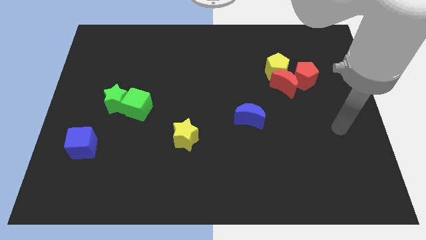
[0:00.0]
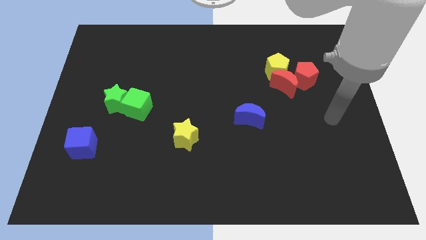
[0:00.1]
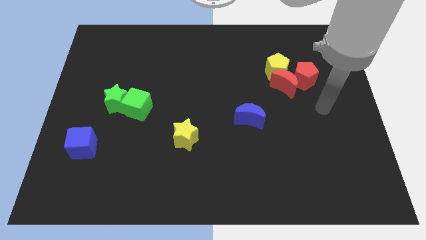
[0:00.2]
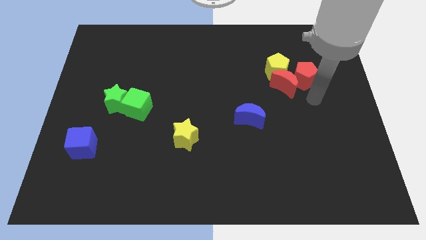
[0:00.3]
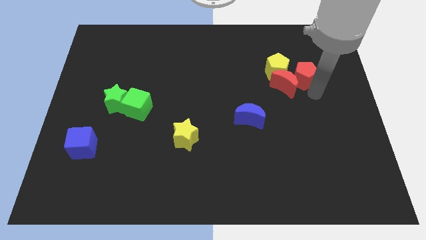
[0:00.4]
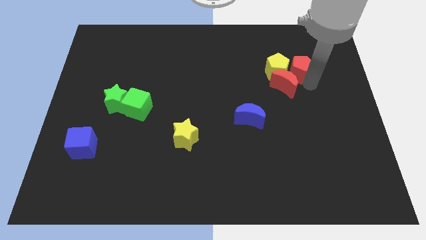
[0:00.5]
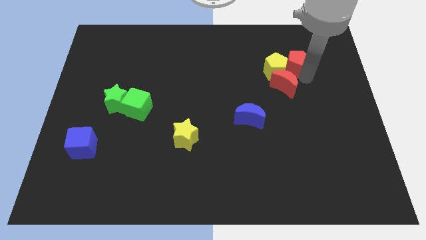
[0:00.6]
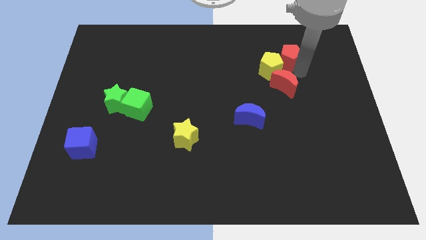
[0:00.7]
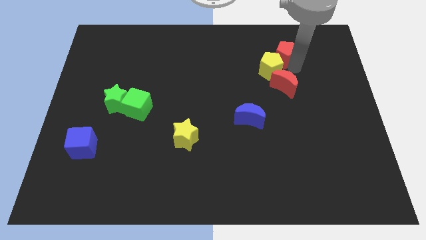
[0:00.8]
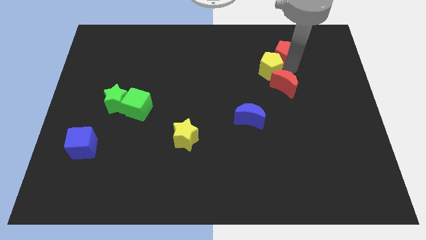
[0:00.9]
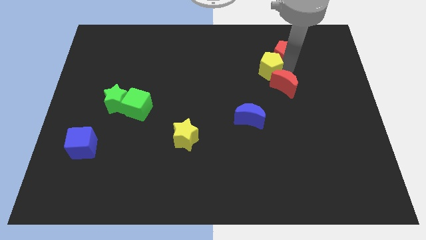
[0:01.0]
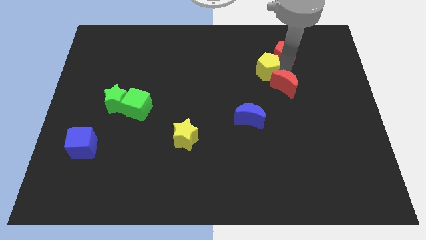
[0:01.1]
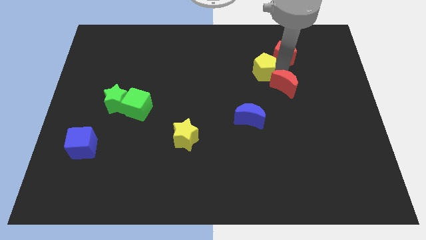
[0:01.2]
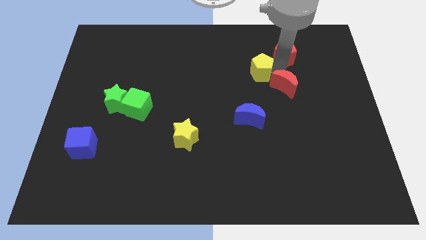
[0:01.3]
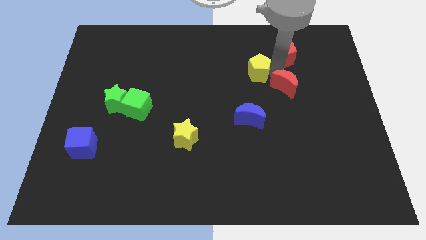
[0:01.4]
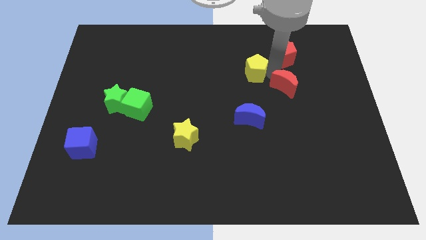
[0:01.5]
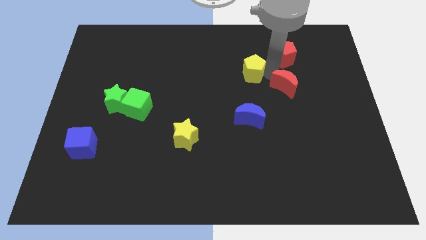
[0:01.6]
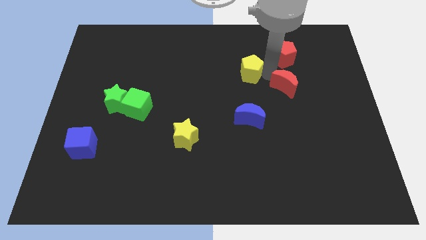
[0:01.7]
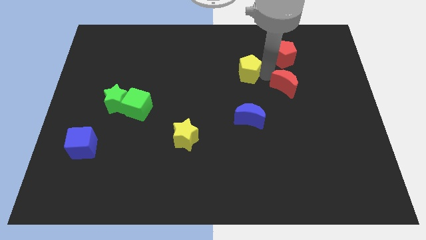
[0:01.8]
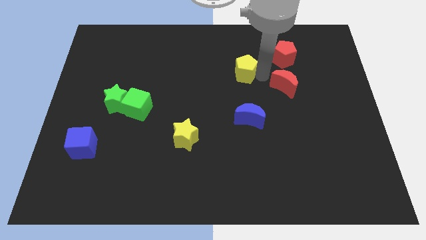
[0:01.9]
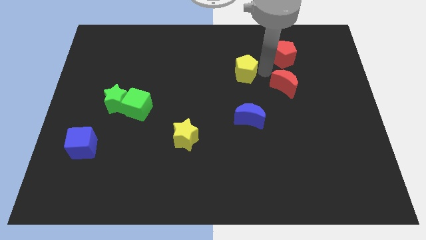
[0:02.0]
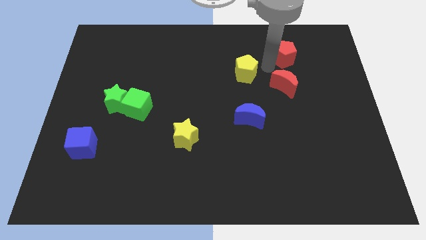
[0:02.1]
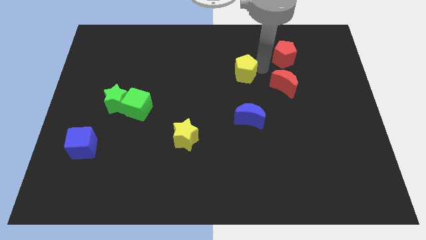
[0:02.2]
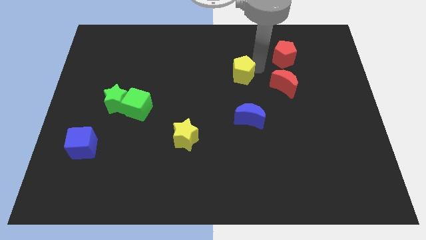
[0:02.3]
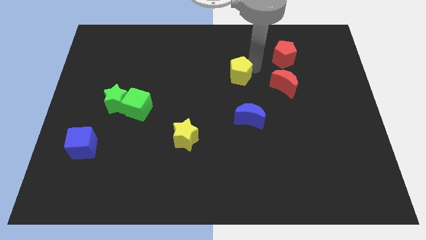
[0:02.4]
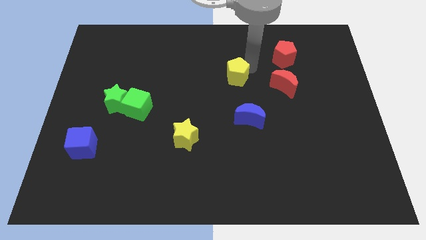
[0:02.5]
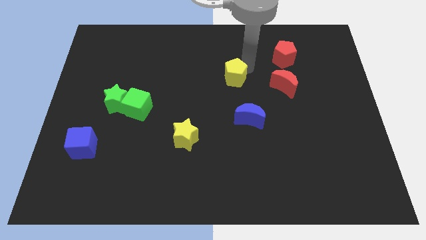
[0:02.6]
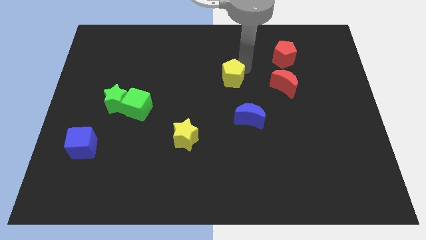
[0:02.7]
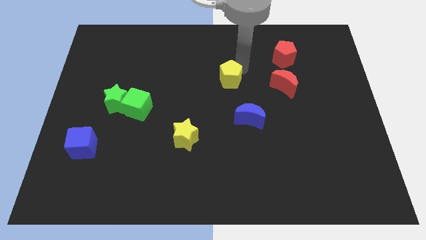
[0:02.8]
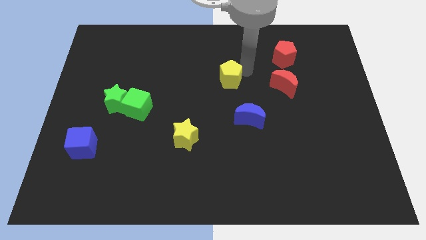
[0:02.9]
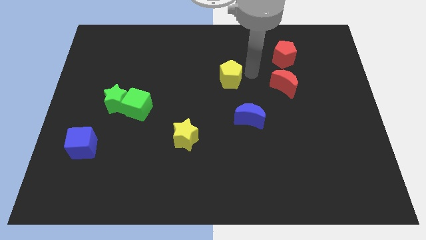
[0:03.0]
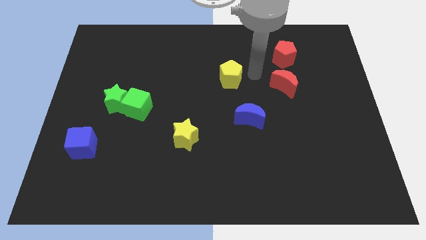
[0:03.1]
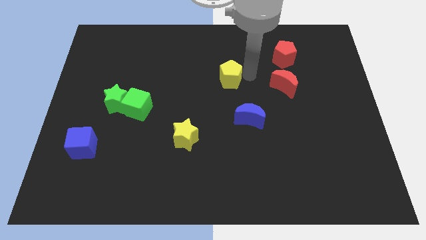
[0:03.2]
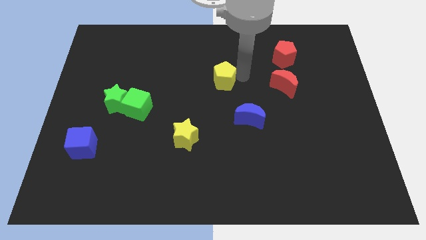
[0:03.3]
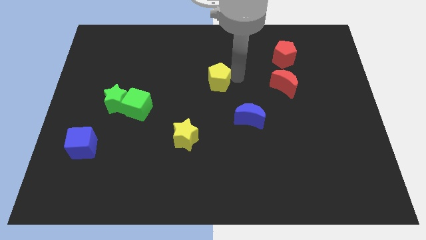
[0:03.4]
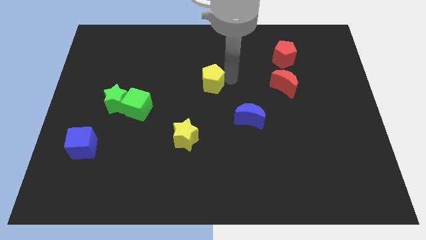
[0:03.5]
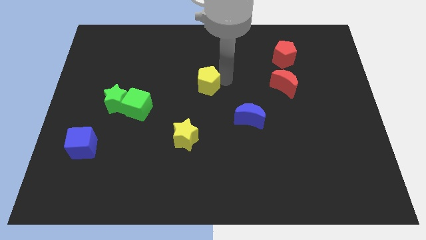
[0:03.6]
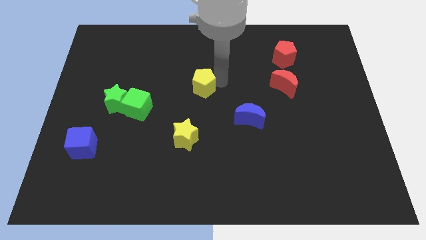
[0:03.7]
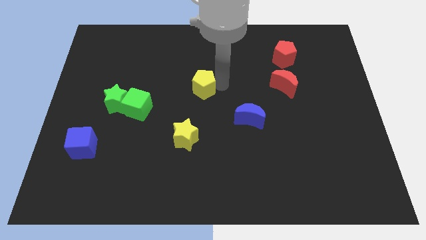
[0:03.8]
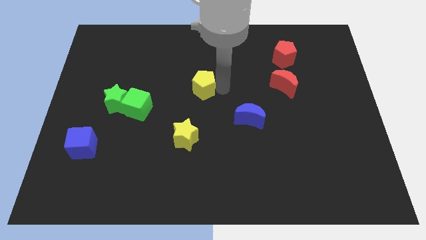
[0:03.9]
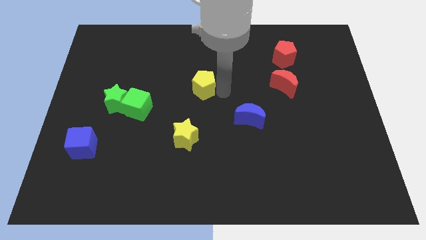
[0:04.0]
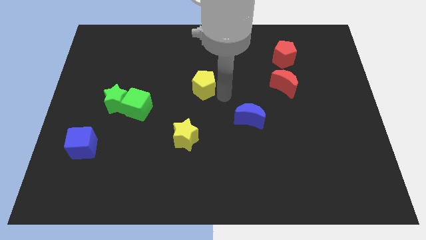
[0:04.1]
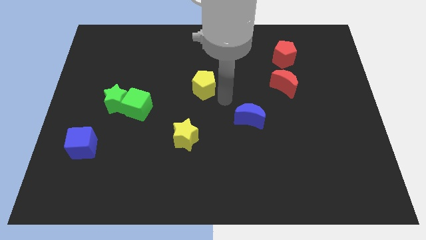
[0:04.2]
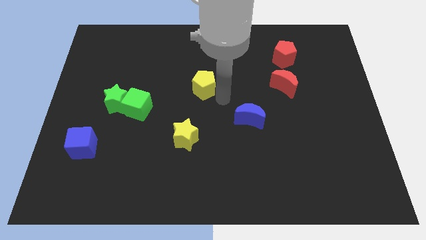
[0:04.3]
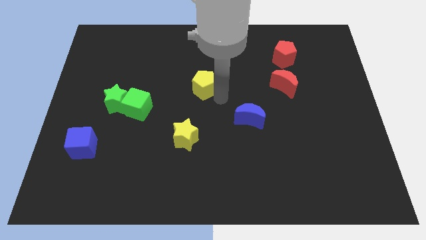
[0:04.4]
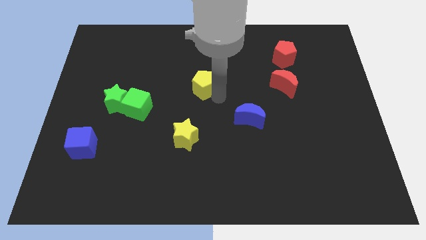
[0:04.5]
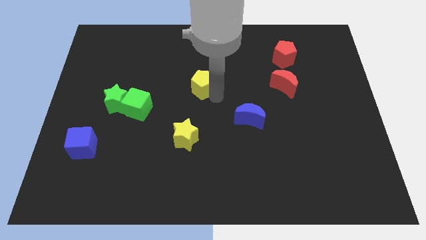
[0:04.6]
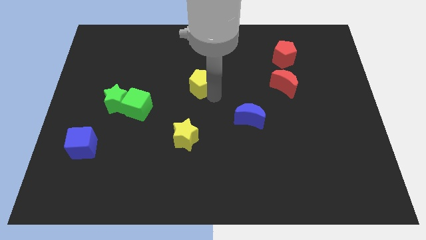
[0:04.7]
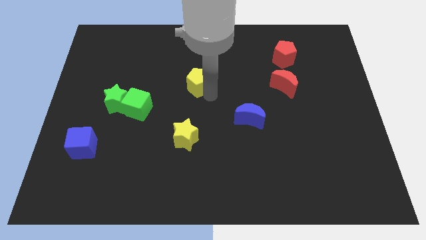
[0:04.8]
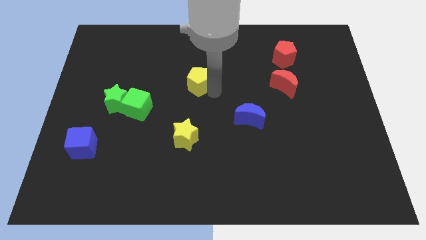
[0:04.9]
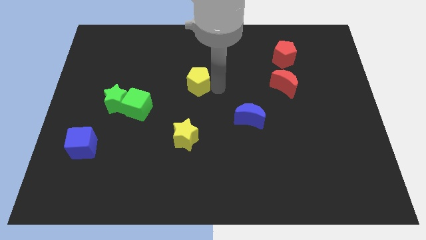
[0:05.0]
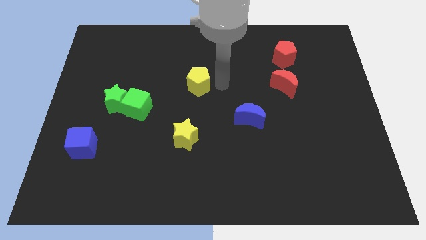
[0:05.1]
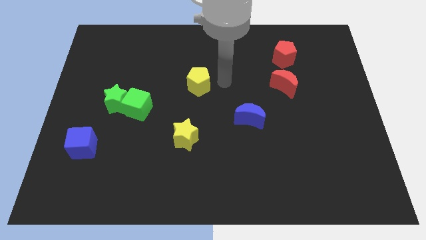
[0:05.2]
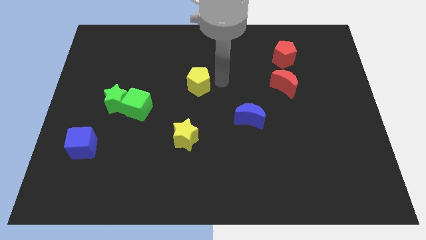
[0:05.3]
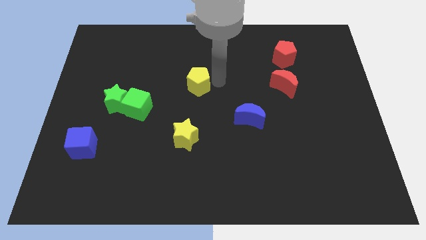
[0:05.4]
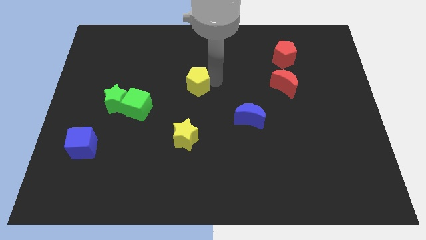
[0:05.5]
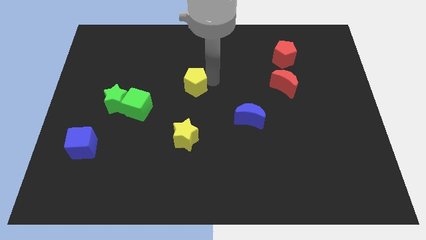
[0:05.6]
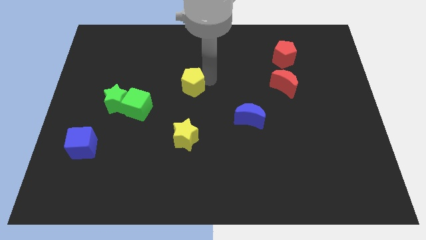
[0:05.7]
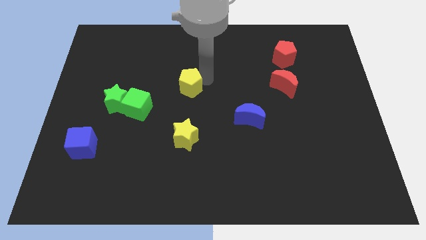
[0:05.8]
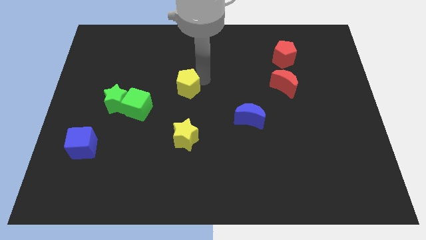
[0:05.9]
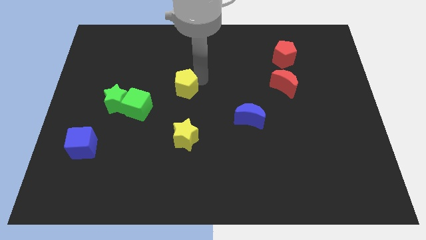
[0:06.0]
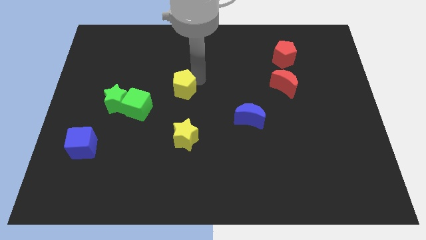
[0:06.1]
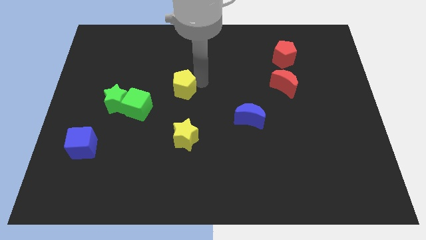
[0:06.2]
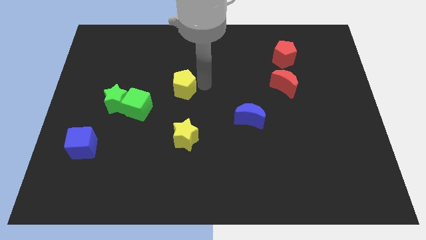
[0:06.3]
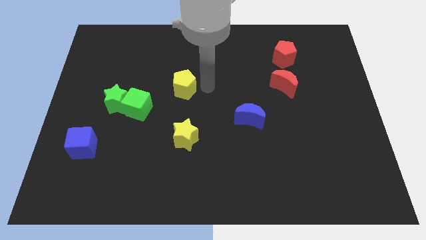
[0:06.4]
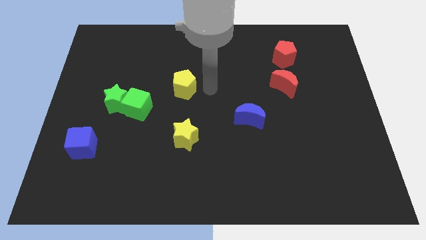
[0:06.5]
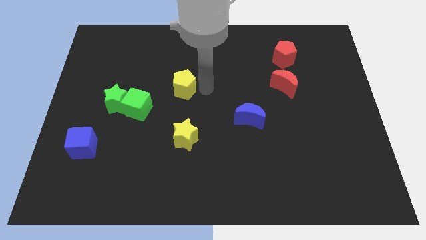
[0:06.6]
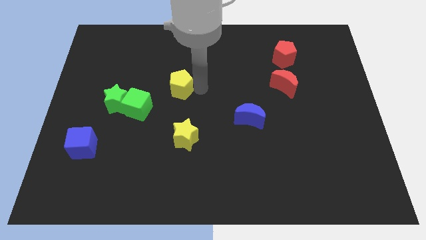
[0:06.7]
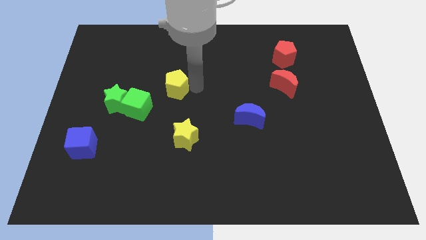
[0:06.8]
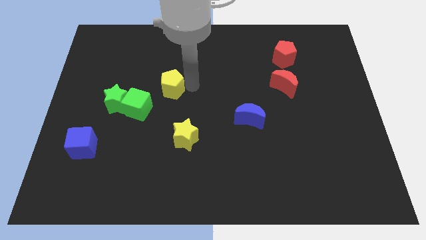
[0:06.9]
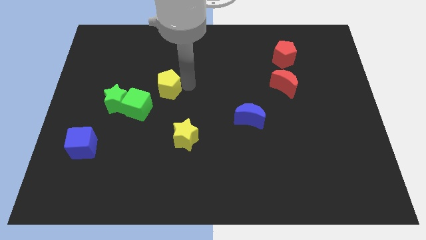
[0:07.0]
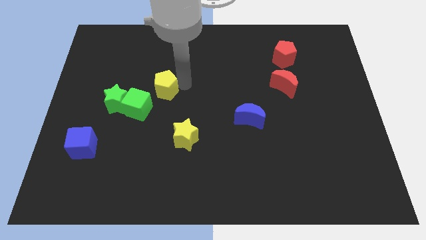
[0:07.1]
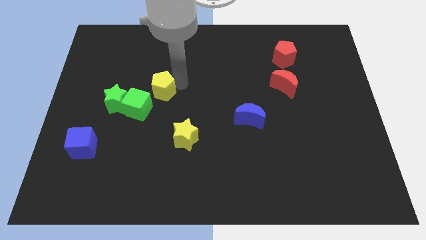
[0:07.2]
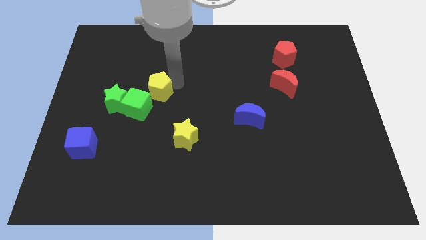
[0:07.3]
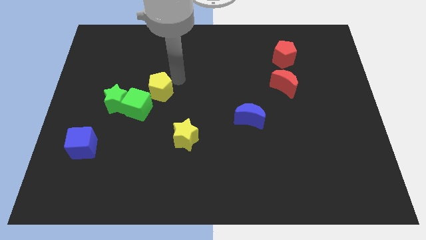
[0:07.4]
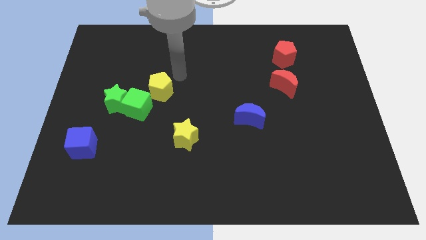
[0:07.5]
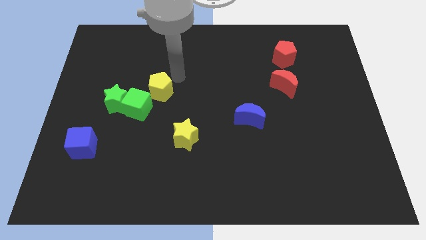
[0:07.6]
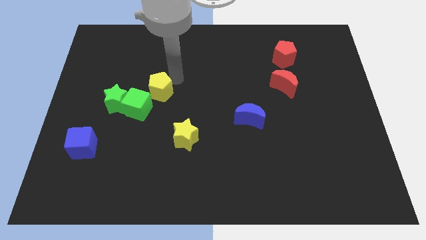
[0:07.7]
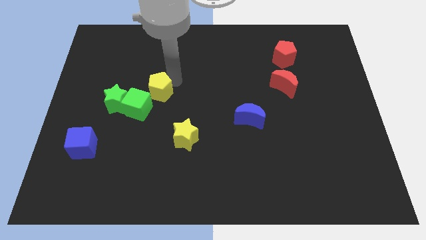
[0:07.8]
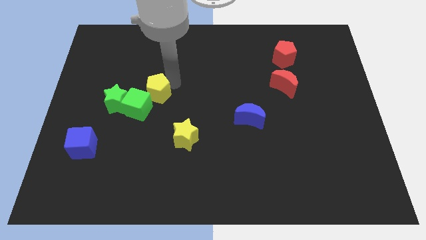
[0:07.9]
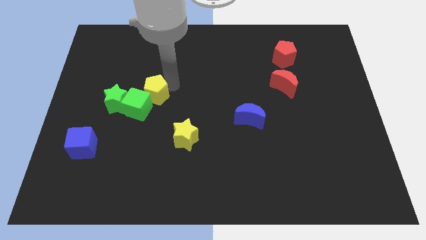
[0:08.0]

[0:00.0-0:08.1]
put the yellow pentagon next to the green cube
